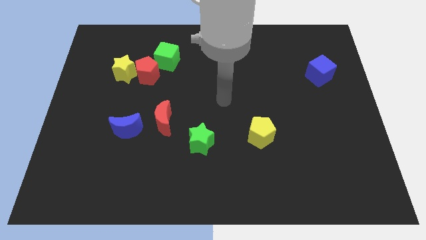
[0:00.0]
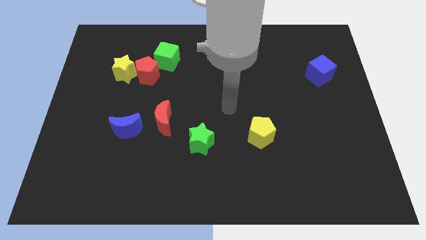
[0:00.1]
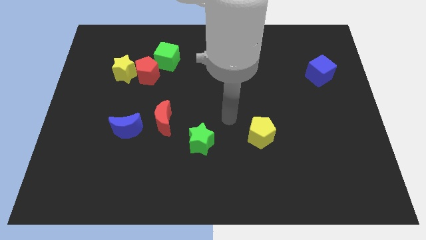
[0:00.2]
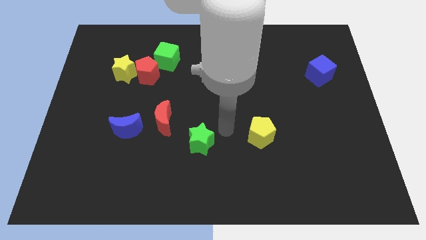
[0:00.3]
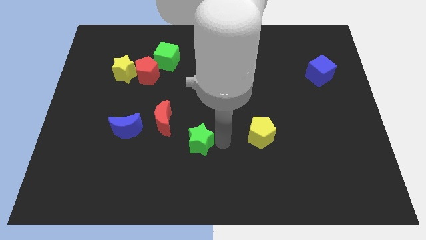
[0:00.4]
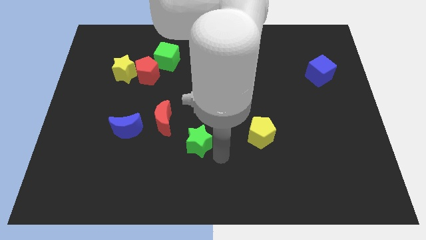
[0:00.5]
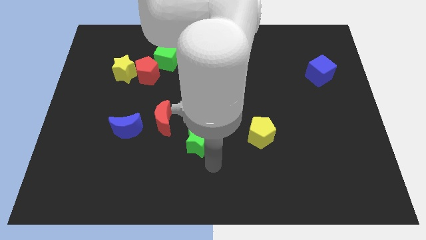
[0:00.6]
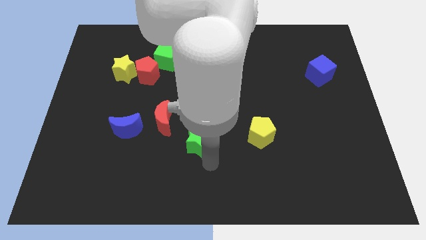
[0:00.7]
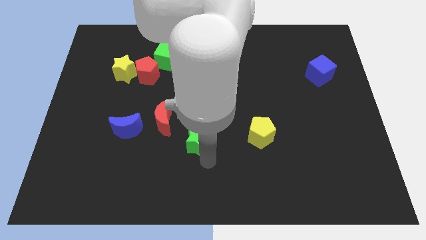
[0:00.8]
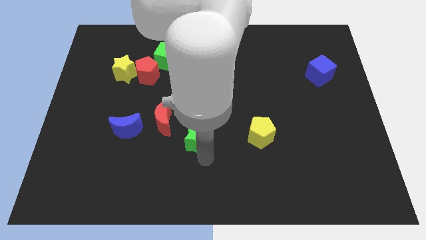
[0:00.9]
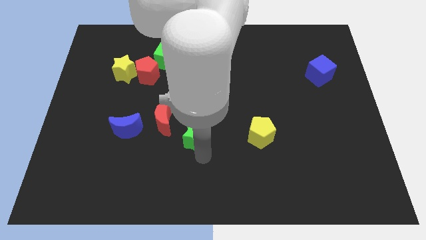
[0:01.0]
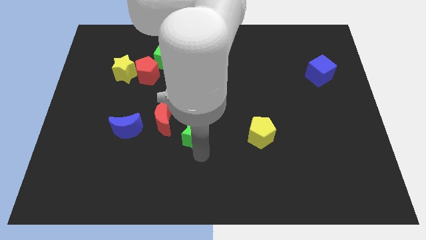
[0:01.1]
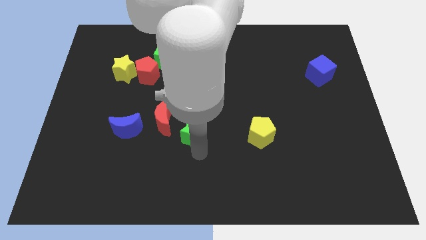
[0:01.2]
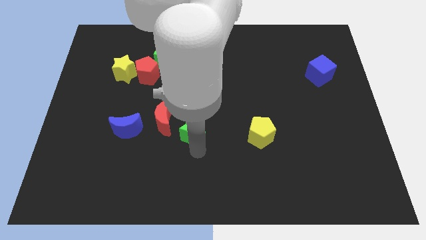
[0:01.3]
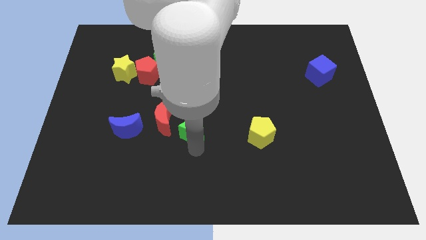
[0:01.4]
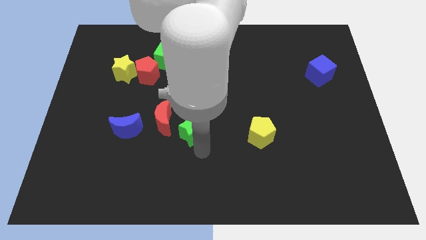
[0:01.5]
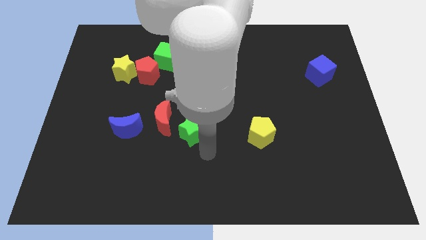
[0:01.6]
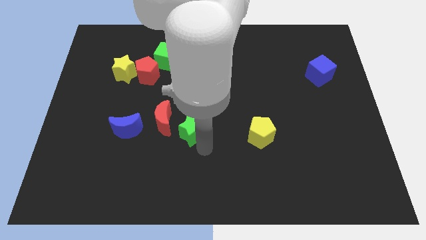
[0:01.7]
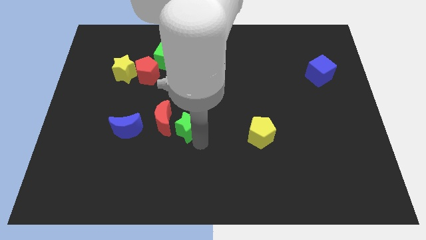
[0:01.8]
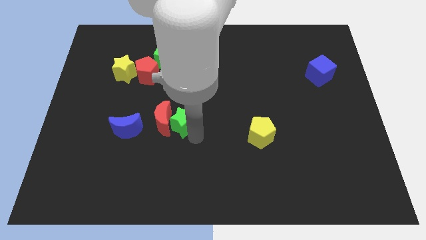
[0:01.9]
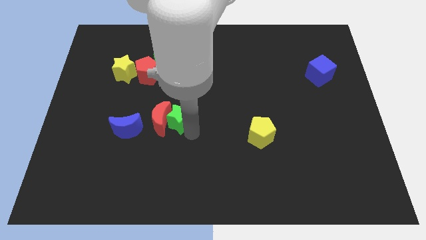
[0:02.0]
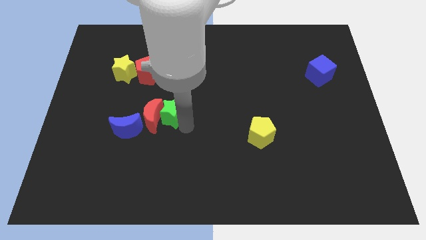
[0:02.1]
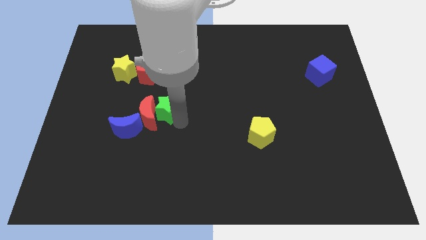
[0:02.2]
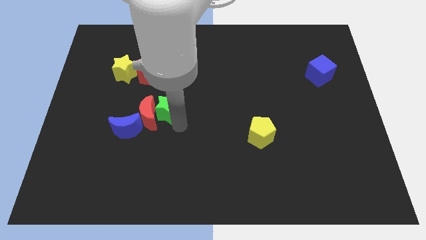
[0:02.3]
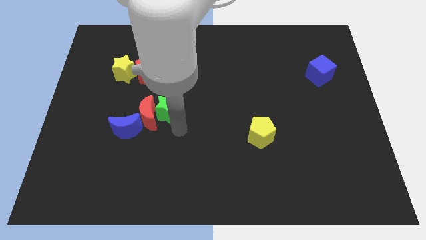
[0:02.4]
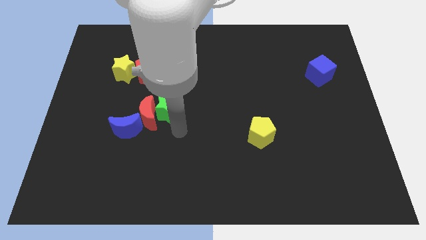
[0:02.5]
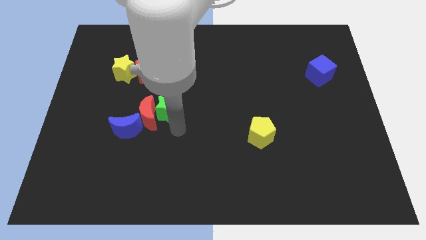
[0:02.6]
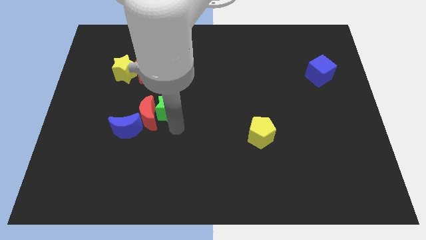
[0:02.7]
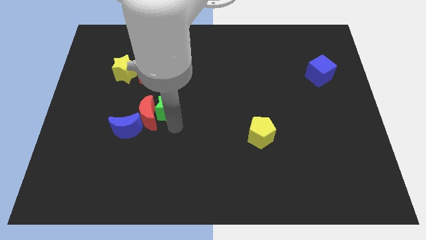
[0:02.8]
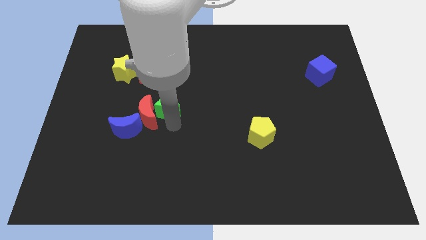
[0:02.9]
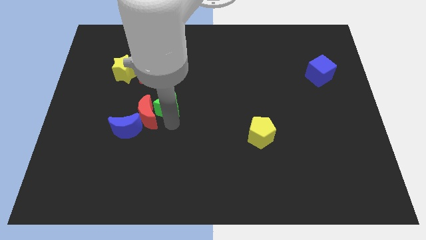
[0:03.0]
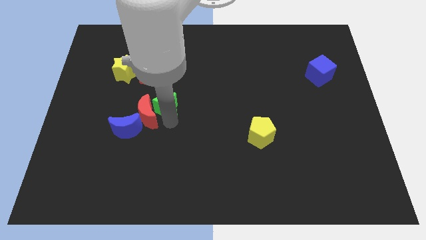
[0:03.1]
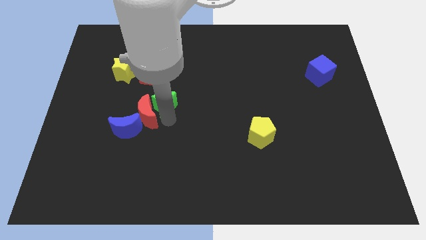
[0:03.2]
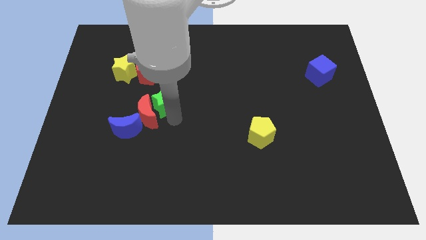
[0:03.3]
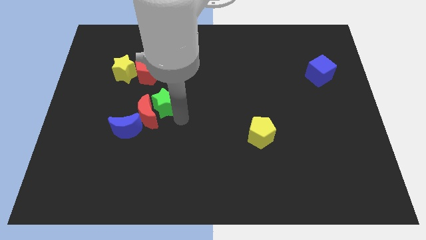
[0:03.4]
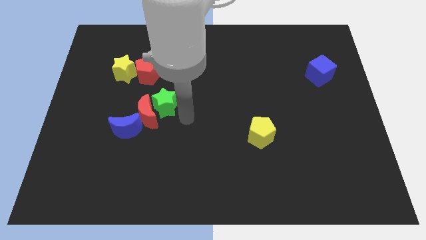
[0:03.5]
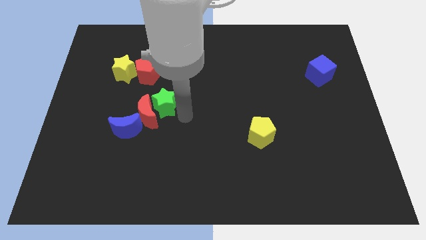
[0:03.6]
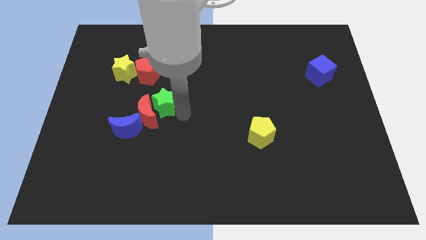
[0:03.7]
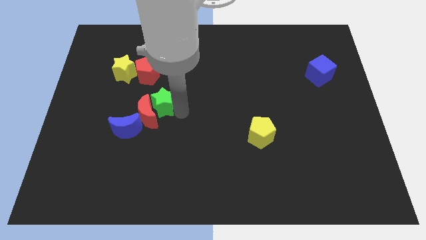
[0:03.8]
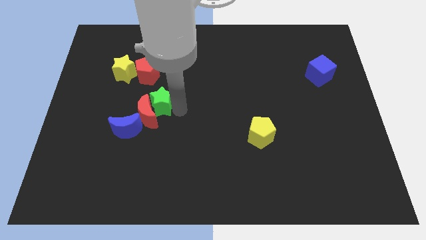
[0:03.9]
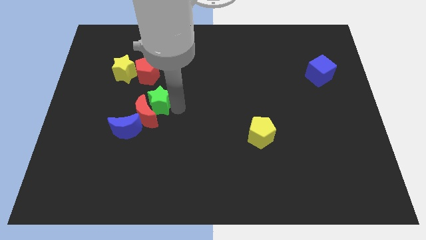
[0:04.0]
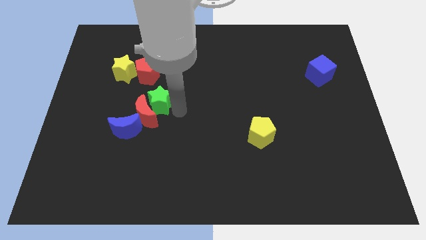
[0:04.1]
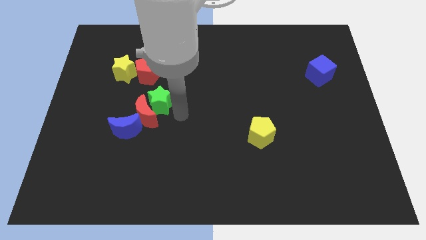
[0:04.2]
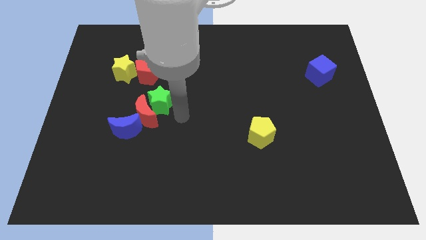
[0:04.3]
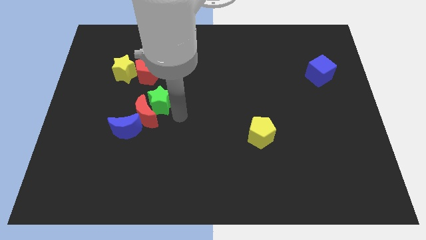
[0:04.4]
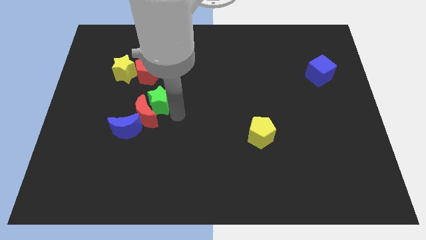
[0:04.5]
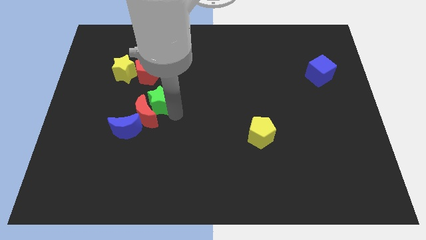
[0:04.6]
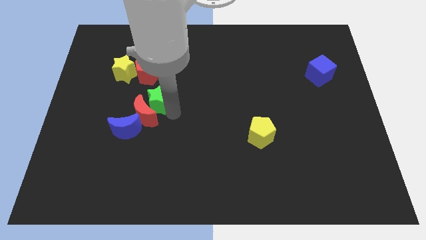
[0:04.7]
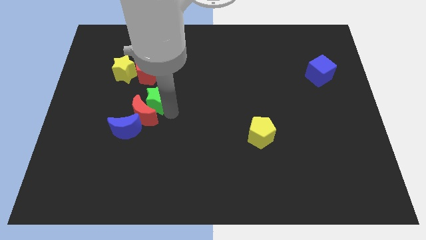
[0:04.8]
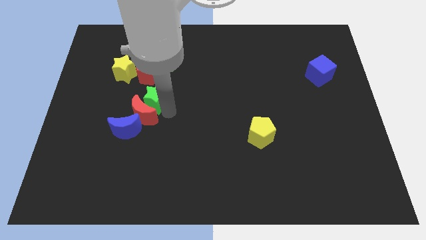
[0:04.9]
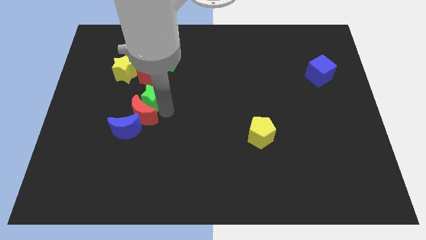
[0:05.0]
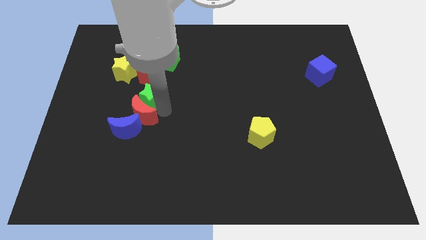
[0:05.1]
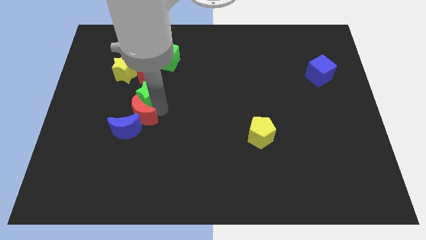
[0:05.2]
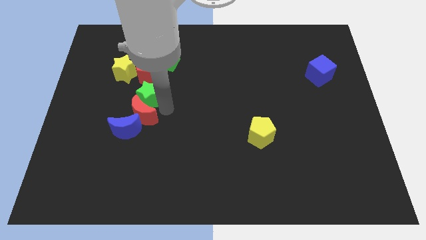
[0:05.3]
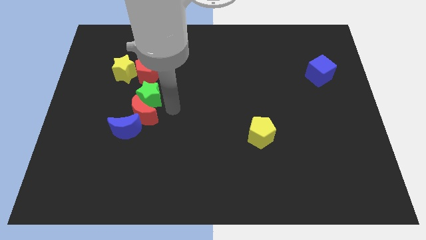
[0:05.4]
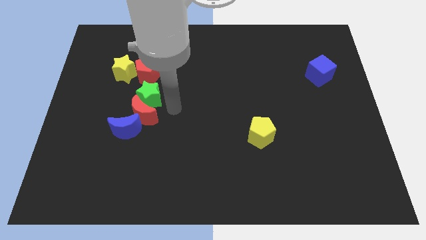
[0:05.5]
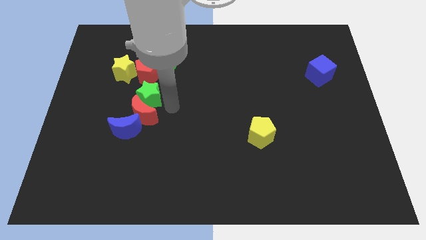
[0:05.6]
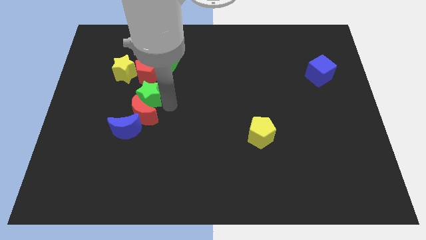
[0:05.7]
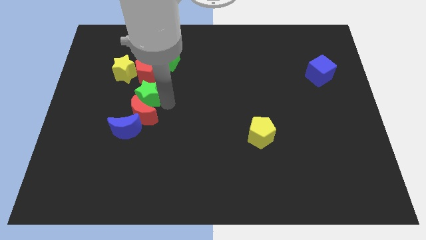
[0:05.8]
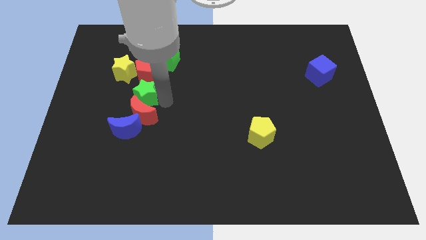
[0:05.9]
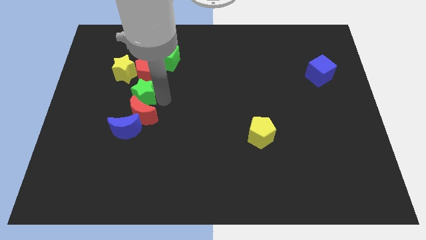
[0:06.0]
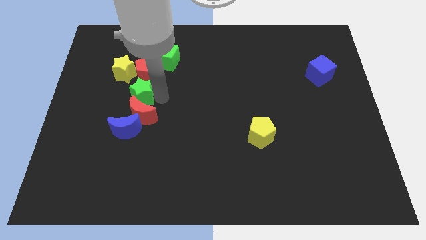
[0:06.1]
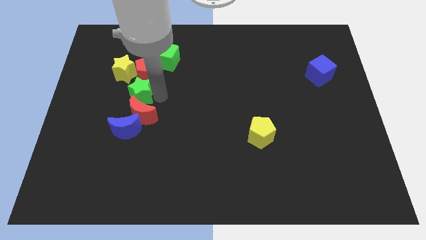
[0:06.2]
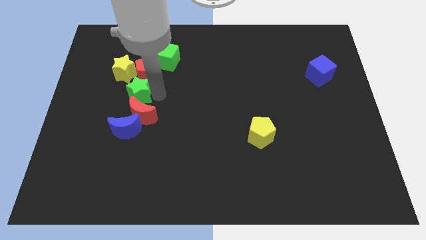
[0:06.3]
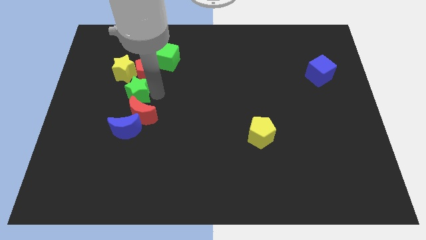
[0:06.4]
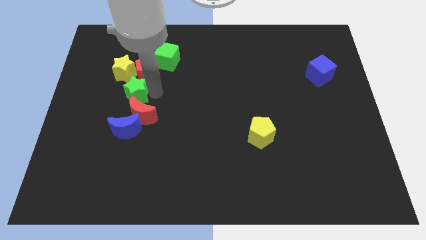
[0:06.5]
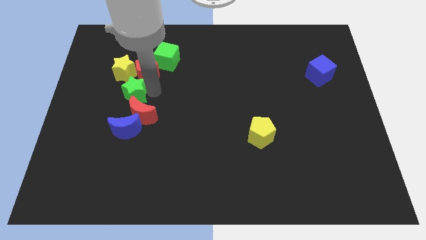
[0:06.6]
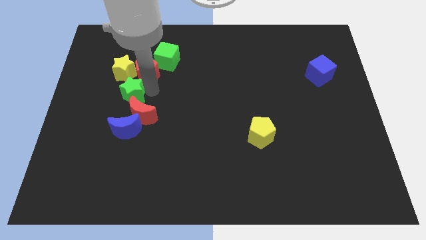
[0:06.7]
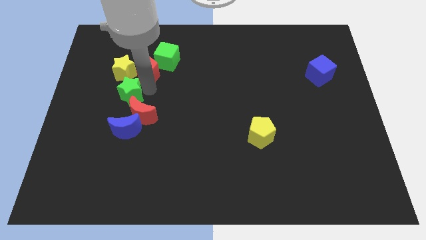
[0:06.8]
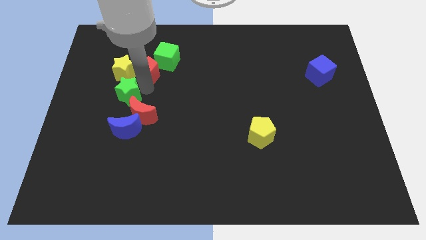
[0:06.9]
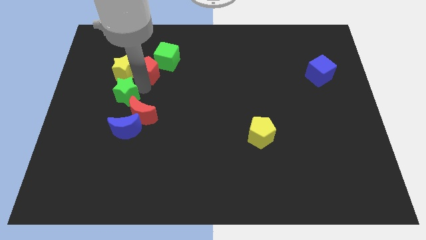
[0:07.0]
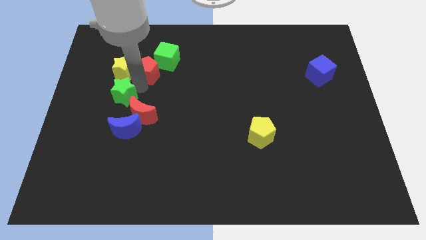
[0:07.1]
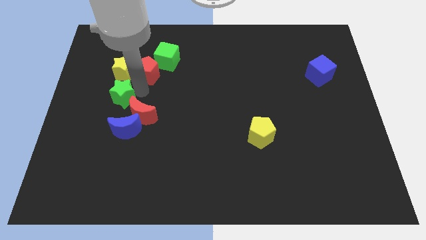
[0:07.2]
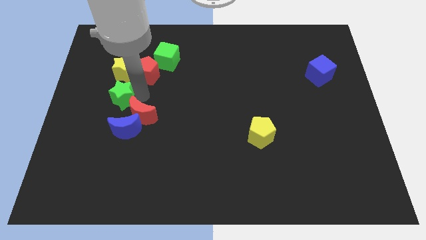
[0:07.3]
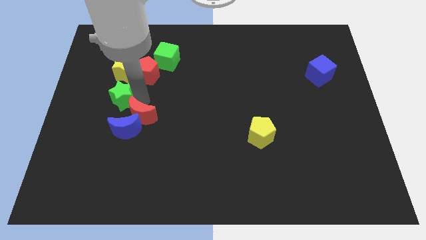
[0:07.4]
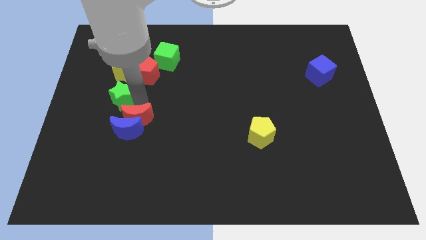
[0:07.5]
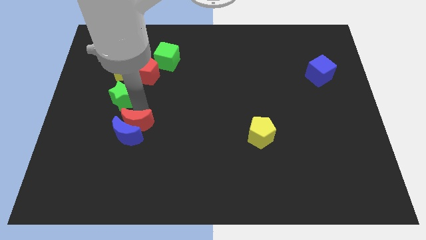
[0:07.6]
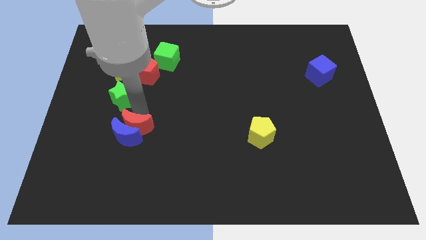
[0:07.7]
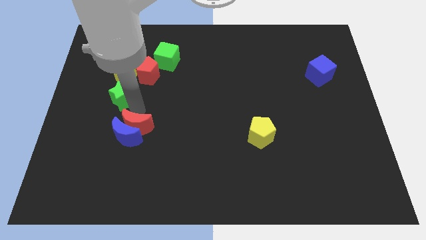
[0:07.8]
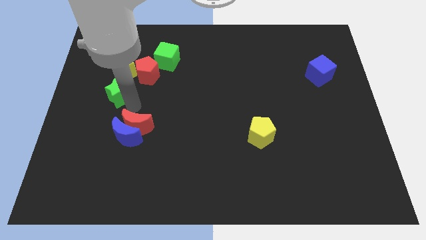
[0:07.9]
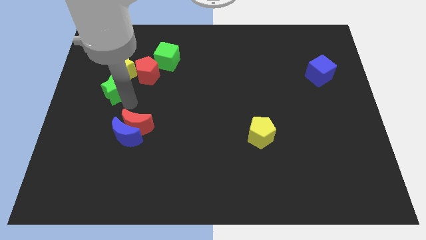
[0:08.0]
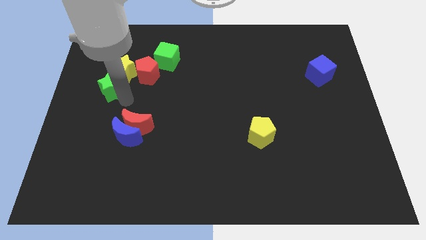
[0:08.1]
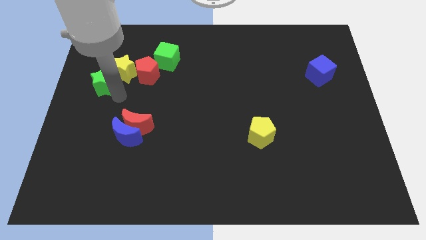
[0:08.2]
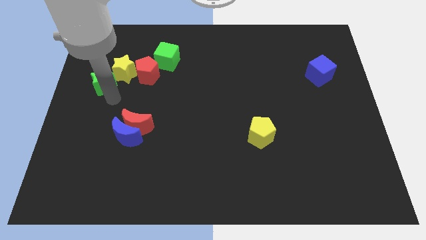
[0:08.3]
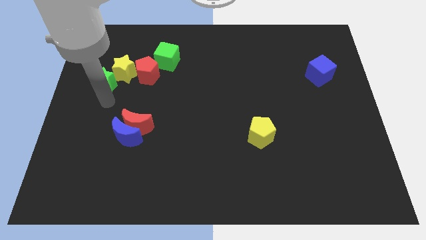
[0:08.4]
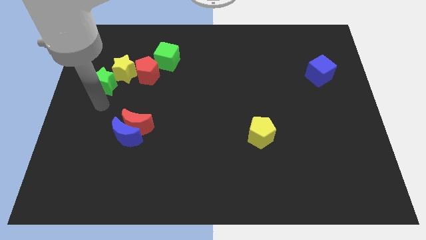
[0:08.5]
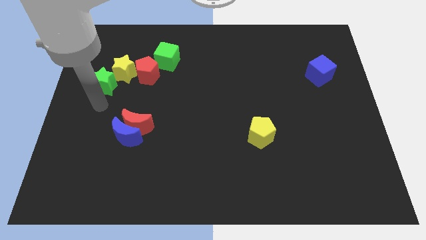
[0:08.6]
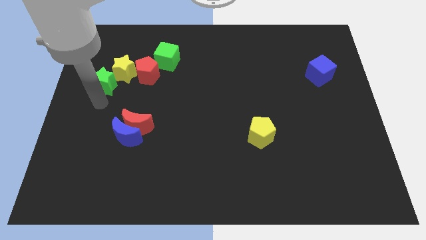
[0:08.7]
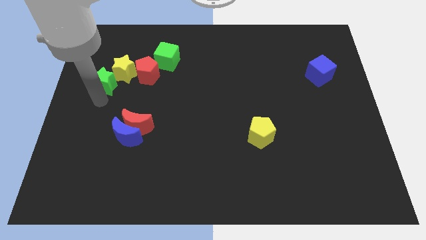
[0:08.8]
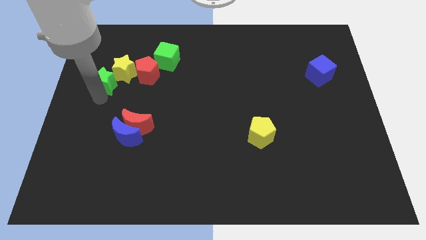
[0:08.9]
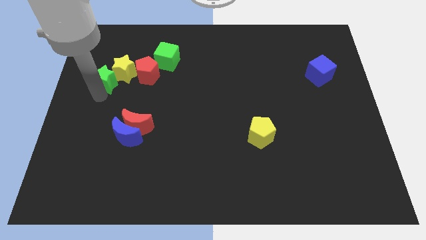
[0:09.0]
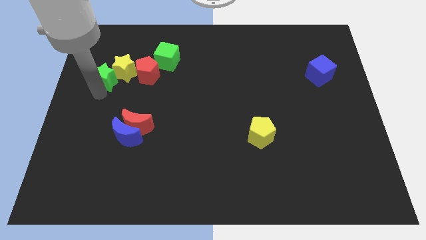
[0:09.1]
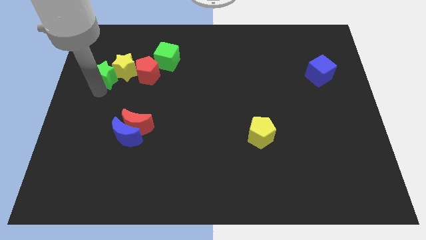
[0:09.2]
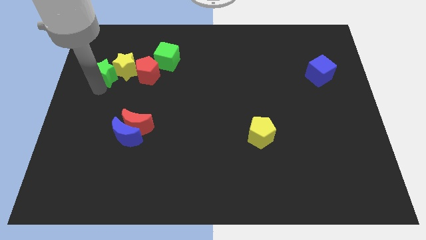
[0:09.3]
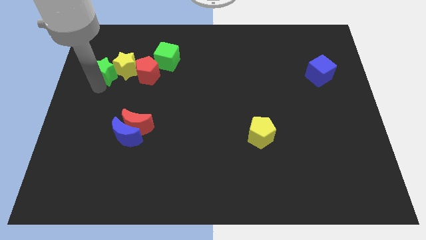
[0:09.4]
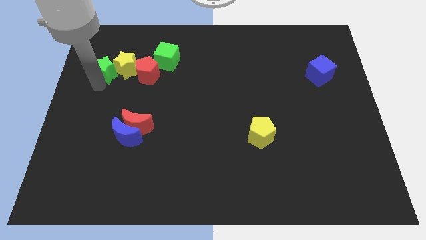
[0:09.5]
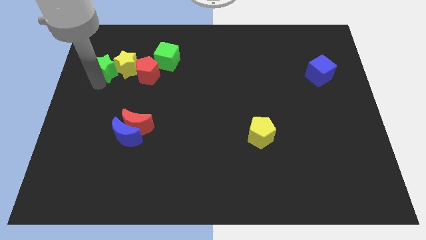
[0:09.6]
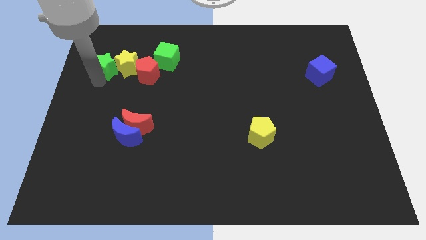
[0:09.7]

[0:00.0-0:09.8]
slide the green star just left of the green cube
